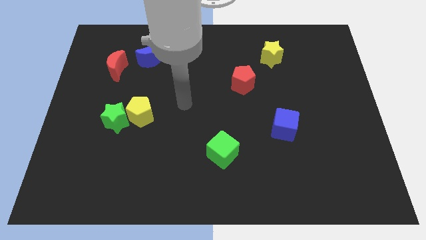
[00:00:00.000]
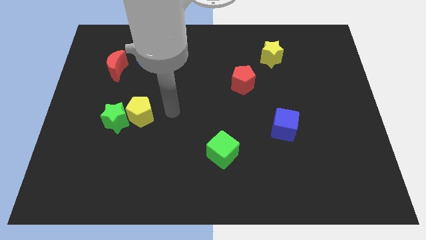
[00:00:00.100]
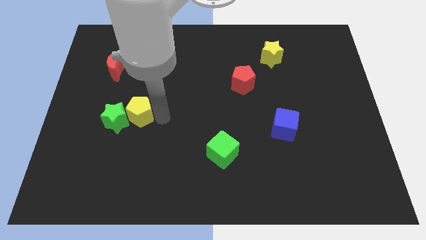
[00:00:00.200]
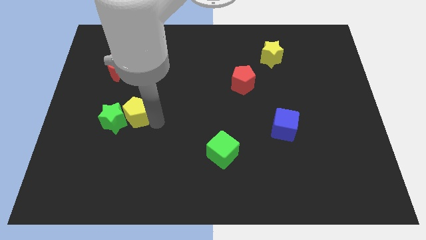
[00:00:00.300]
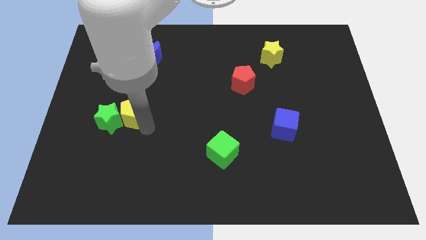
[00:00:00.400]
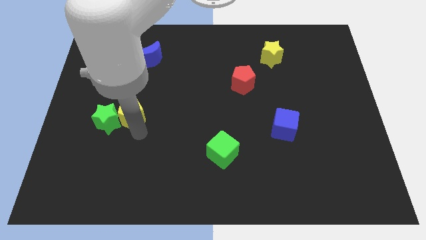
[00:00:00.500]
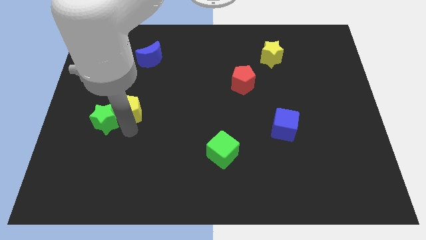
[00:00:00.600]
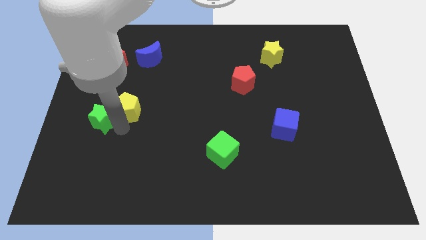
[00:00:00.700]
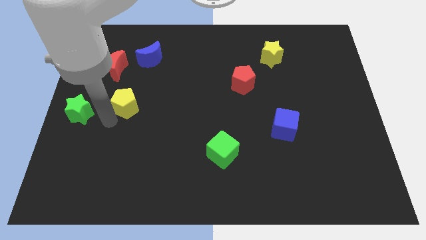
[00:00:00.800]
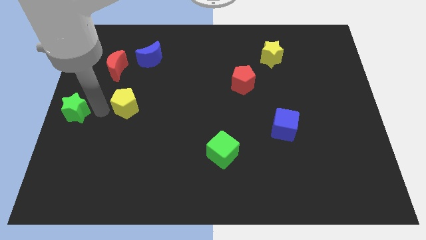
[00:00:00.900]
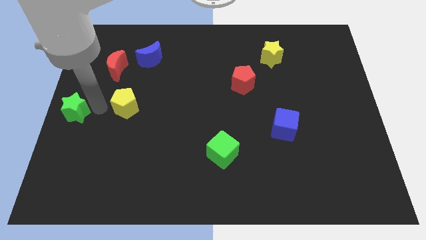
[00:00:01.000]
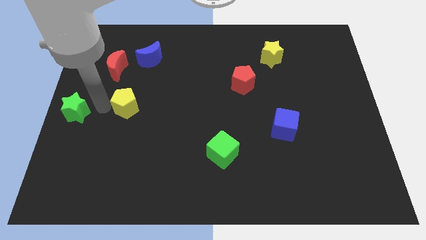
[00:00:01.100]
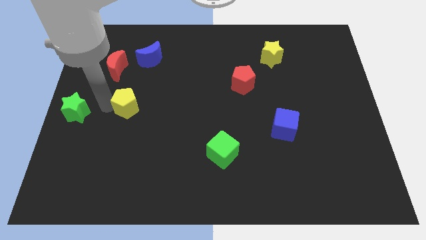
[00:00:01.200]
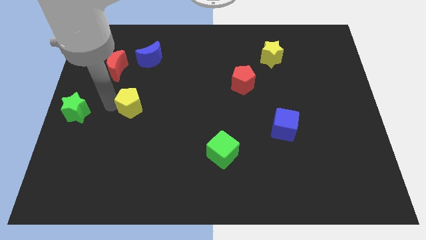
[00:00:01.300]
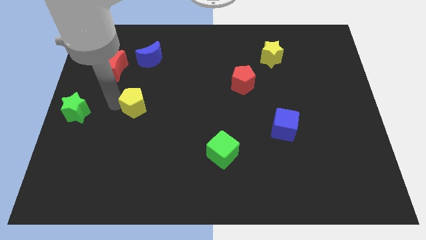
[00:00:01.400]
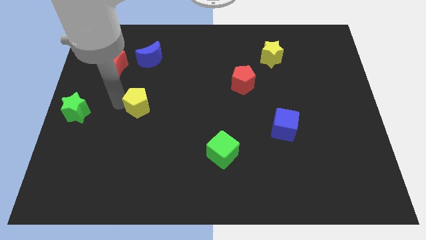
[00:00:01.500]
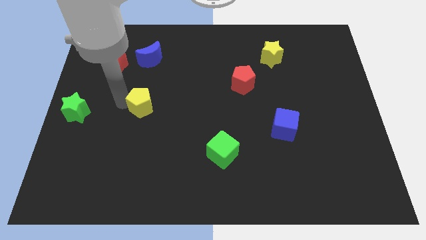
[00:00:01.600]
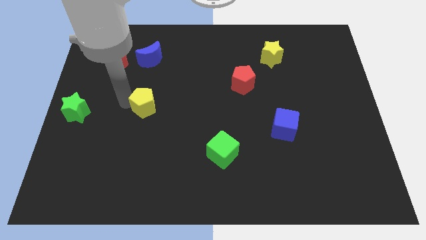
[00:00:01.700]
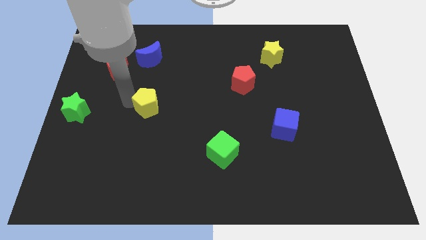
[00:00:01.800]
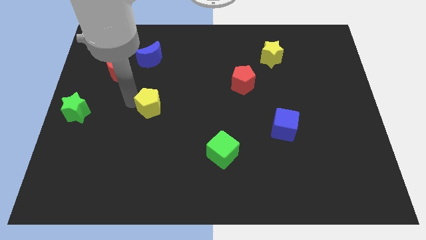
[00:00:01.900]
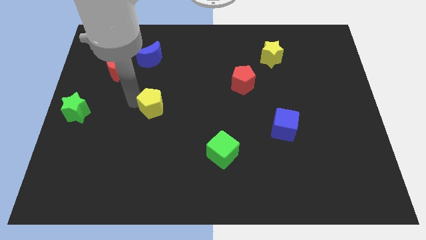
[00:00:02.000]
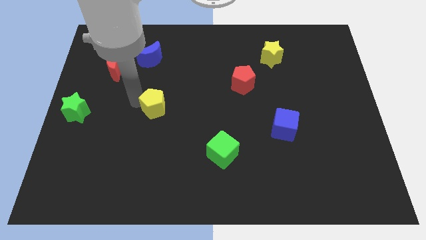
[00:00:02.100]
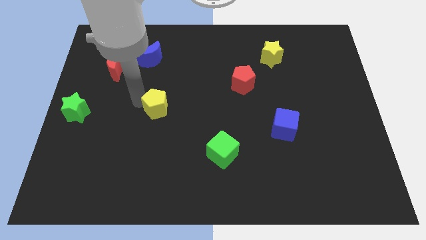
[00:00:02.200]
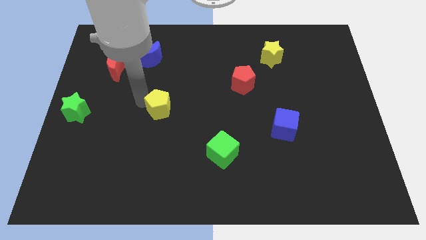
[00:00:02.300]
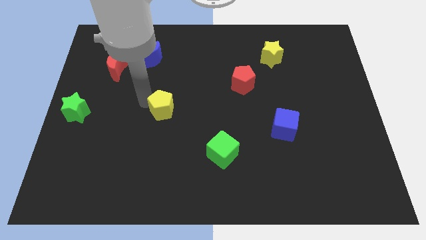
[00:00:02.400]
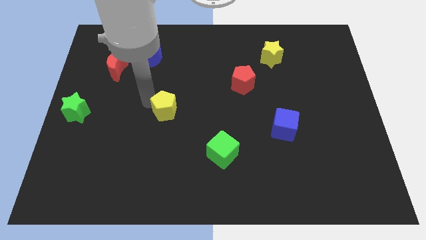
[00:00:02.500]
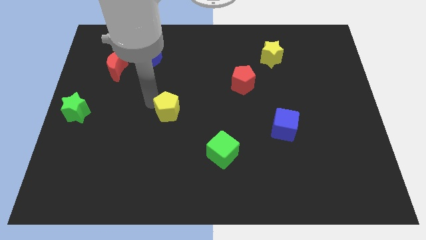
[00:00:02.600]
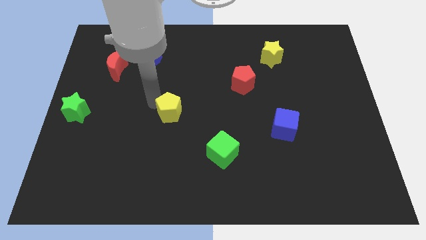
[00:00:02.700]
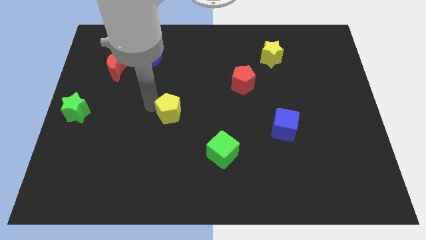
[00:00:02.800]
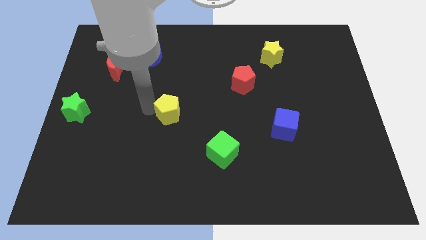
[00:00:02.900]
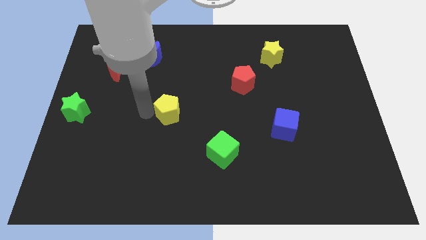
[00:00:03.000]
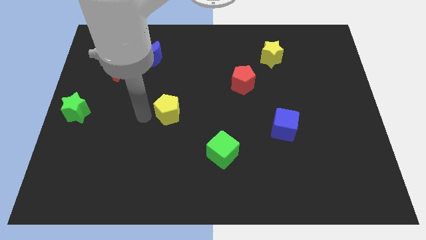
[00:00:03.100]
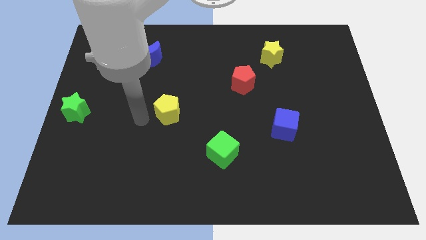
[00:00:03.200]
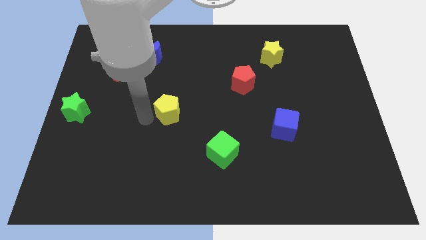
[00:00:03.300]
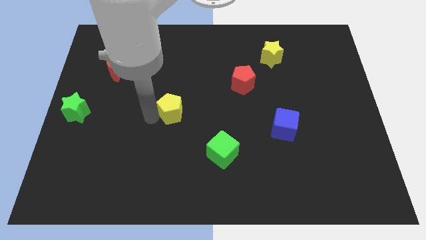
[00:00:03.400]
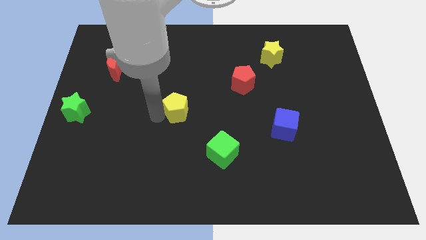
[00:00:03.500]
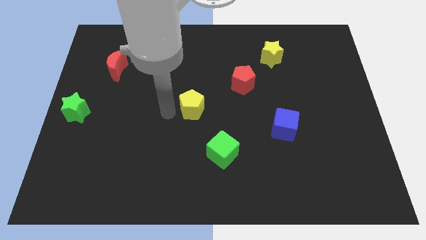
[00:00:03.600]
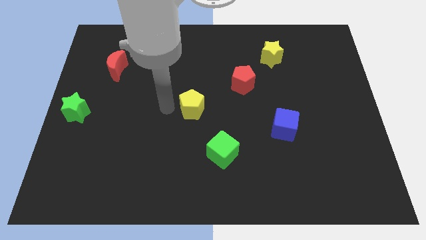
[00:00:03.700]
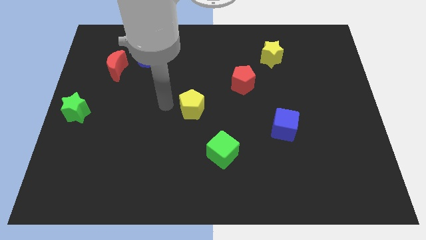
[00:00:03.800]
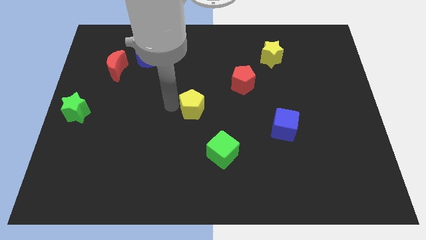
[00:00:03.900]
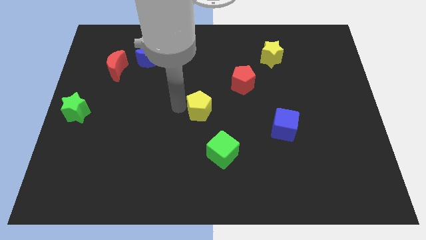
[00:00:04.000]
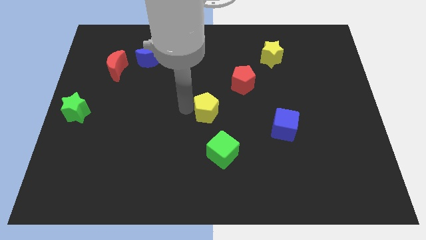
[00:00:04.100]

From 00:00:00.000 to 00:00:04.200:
slide the yellow pentagon to the top of the green cube

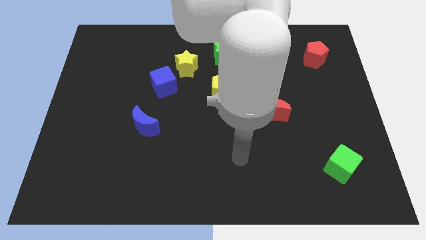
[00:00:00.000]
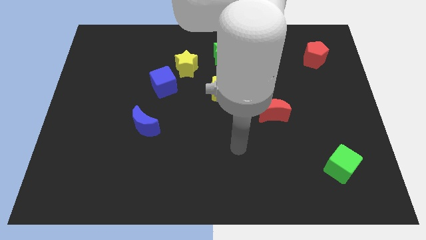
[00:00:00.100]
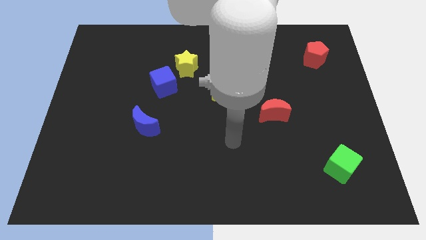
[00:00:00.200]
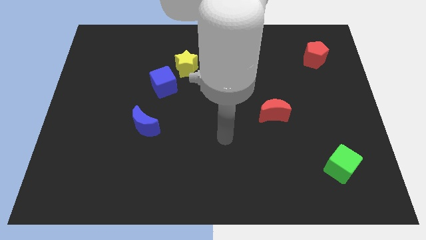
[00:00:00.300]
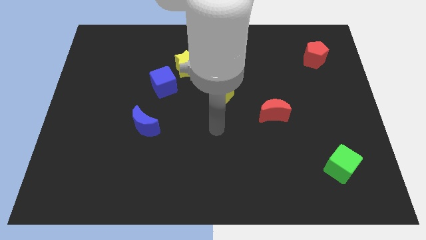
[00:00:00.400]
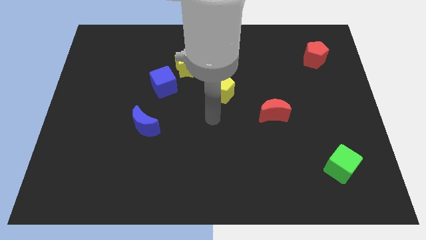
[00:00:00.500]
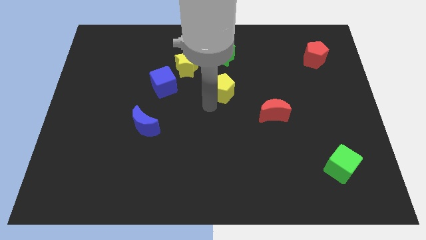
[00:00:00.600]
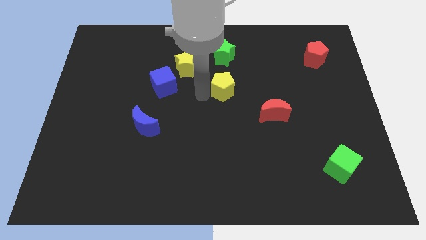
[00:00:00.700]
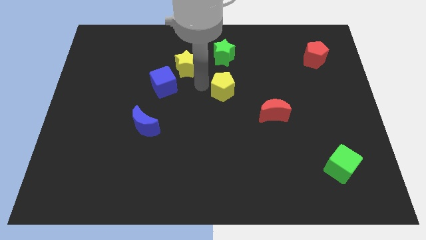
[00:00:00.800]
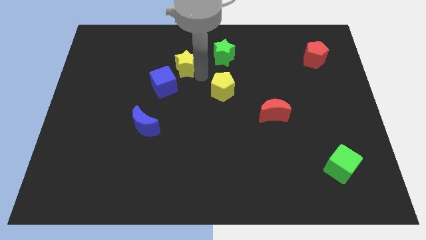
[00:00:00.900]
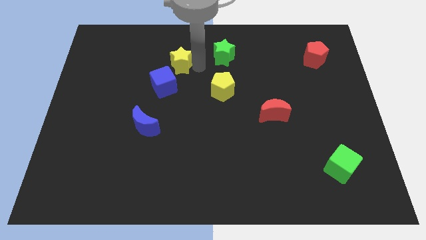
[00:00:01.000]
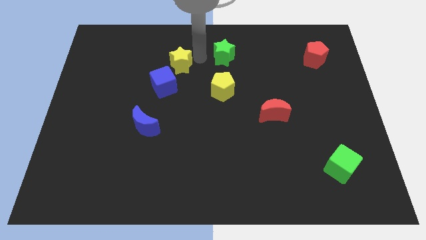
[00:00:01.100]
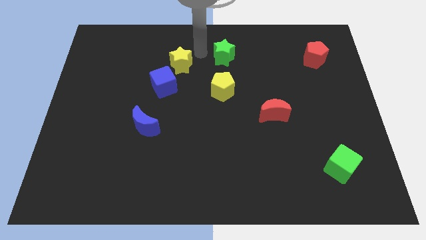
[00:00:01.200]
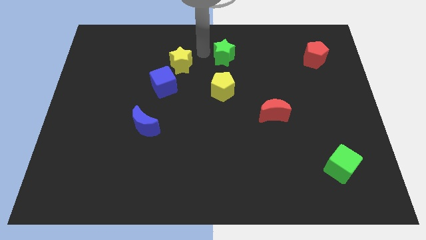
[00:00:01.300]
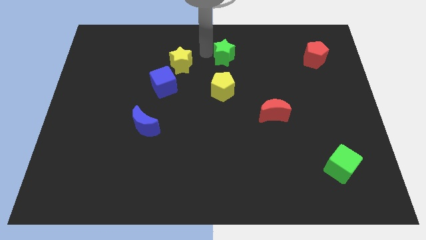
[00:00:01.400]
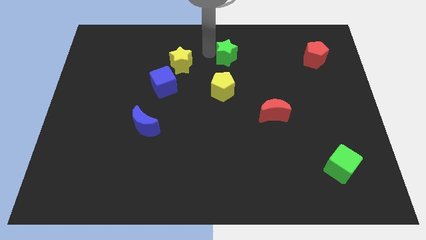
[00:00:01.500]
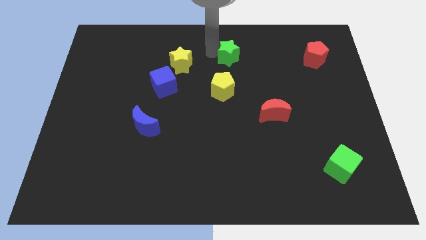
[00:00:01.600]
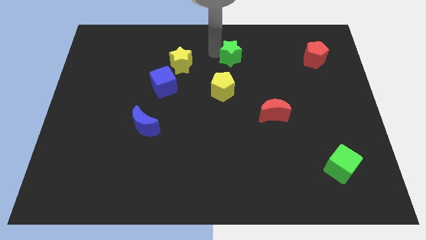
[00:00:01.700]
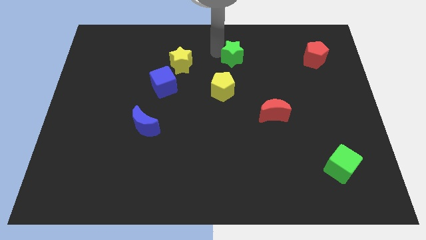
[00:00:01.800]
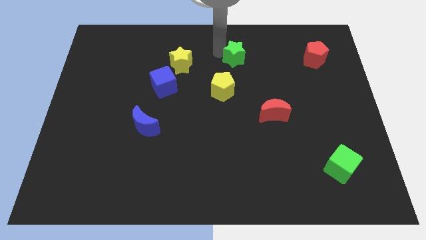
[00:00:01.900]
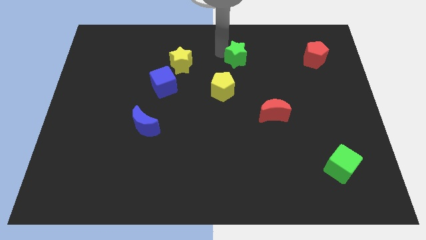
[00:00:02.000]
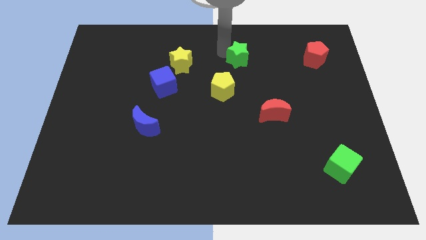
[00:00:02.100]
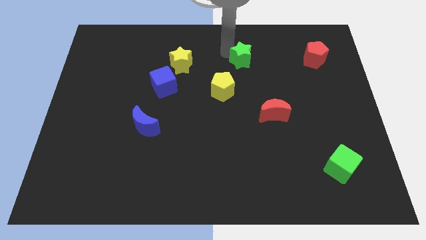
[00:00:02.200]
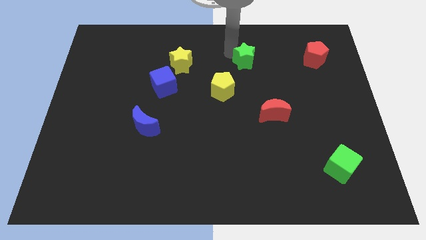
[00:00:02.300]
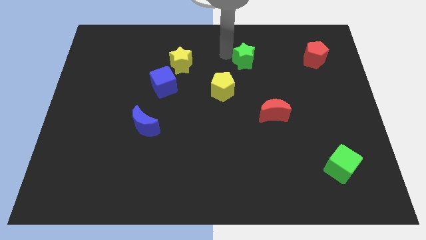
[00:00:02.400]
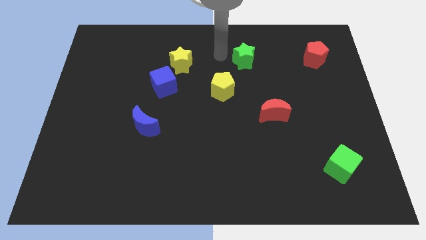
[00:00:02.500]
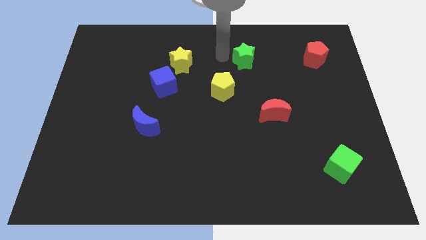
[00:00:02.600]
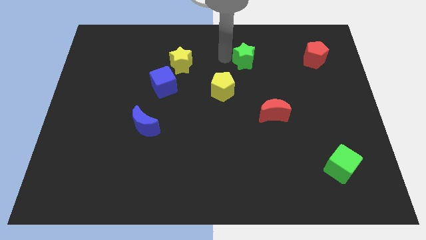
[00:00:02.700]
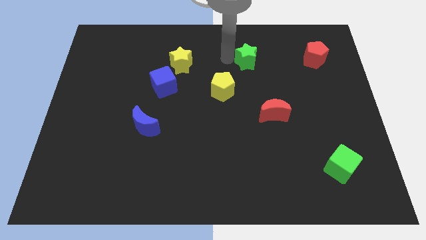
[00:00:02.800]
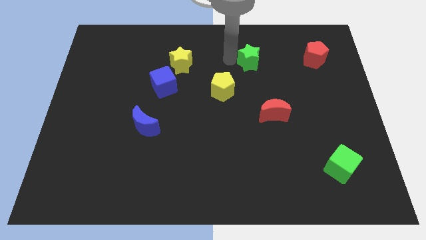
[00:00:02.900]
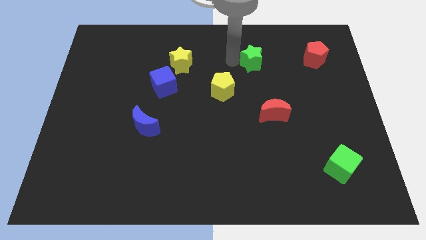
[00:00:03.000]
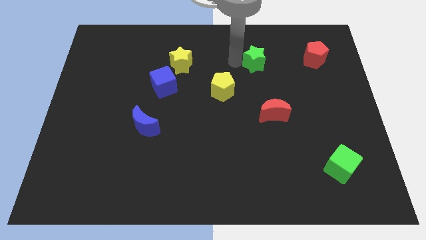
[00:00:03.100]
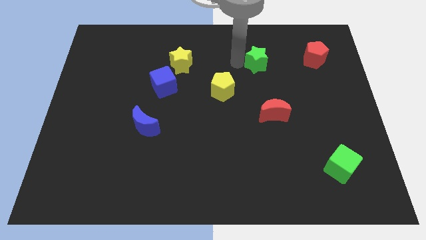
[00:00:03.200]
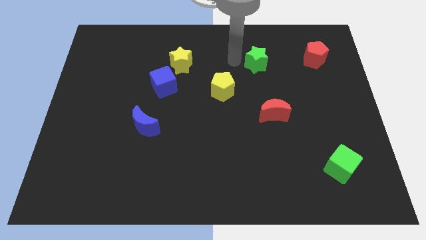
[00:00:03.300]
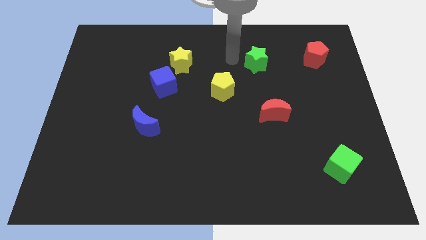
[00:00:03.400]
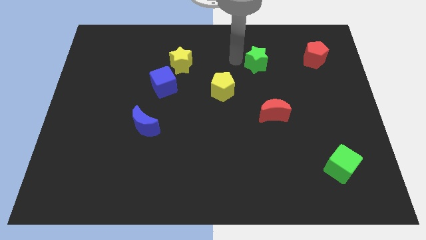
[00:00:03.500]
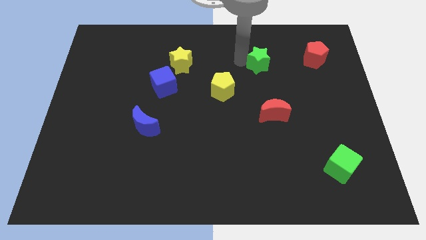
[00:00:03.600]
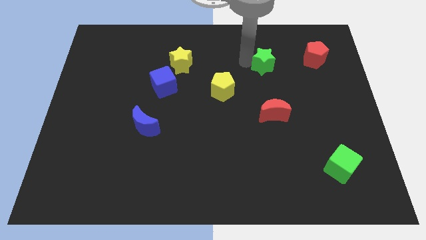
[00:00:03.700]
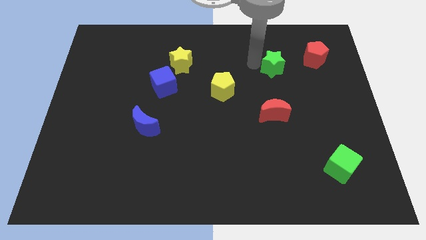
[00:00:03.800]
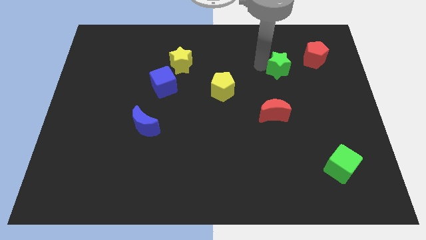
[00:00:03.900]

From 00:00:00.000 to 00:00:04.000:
move the green star to the bottom left side of the red pentagon
